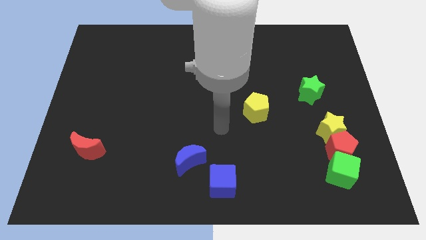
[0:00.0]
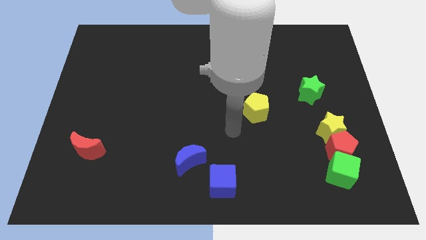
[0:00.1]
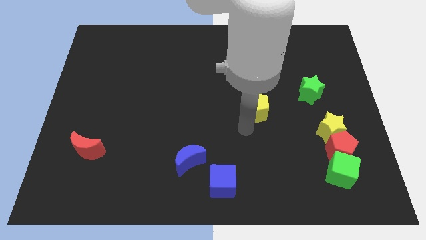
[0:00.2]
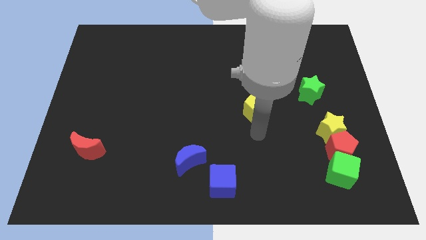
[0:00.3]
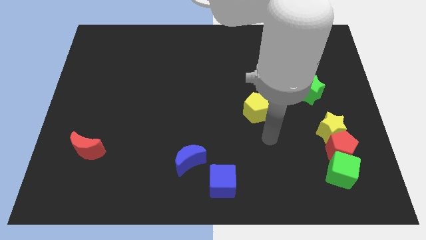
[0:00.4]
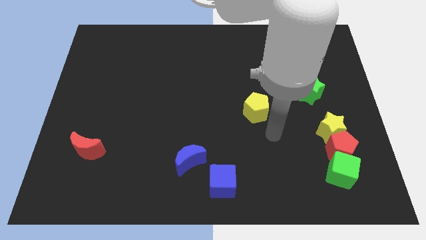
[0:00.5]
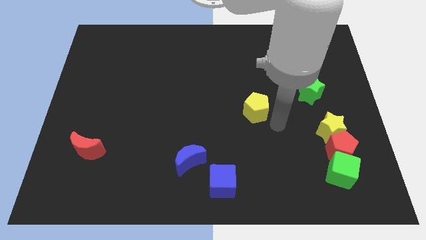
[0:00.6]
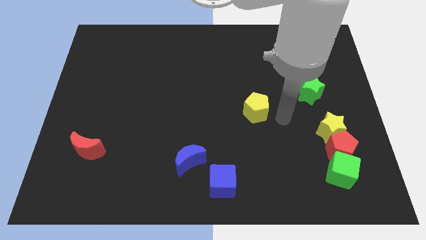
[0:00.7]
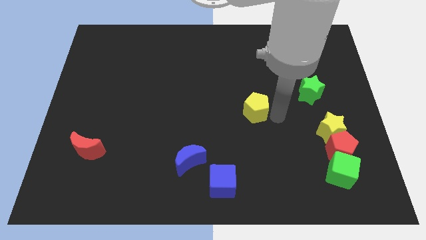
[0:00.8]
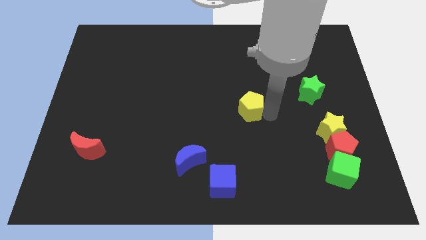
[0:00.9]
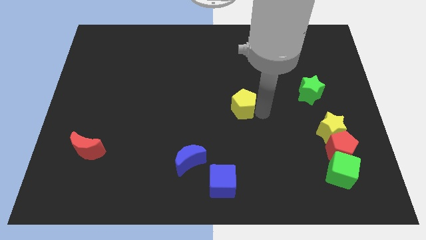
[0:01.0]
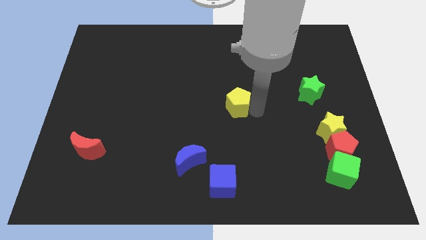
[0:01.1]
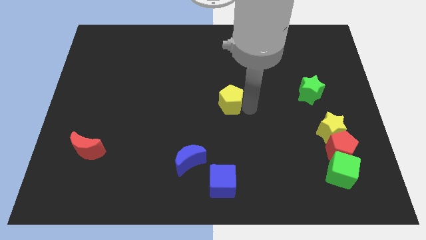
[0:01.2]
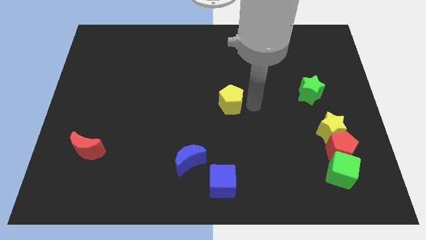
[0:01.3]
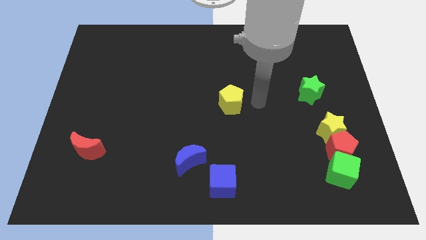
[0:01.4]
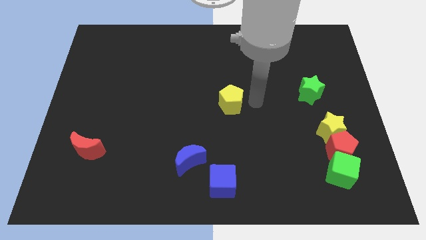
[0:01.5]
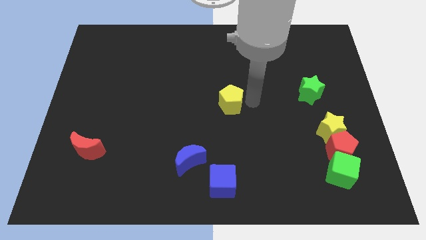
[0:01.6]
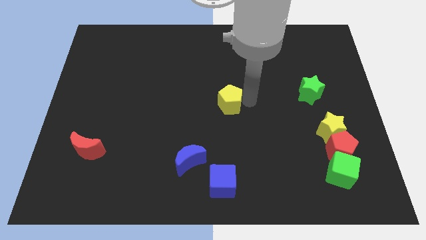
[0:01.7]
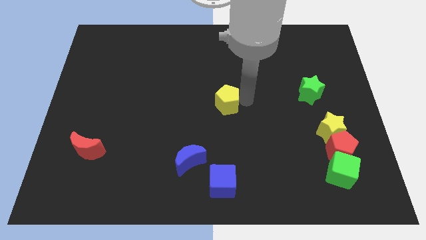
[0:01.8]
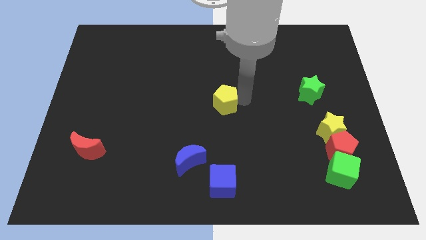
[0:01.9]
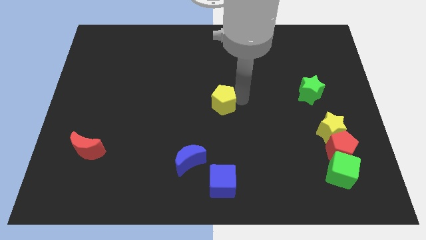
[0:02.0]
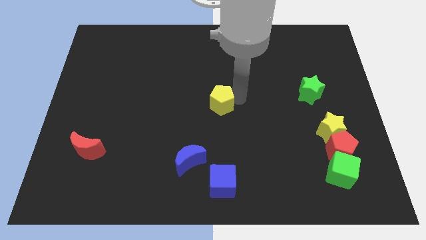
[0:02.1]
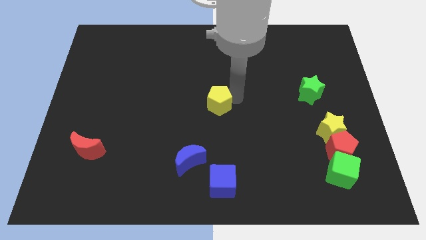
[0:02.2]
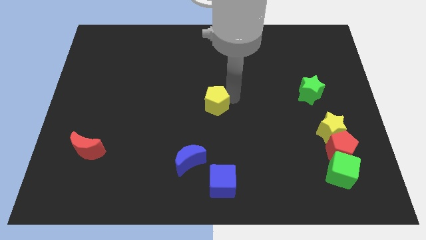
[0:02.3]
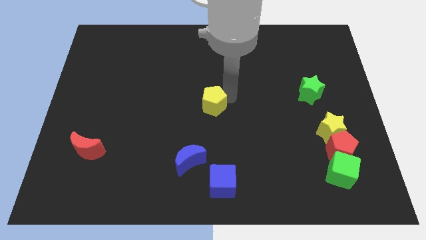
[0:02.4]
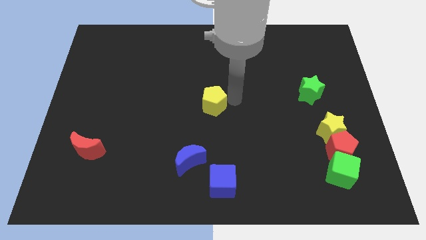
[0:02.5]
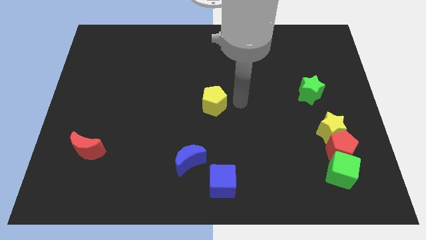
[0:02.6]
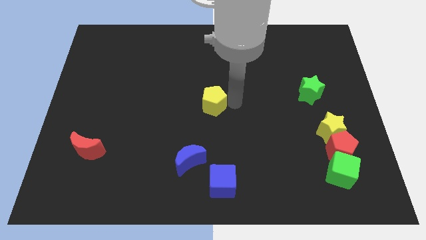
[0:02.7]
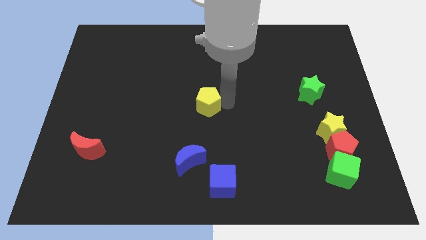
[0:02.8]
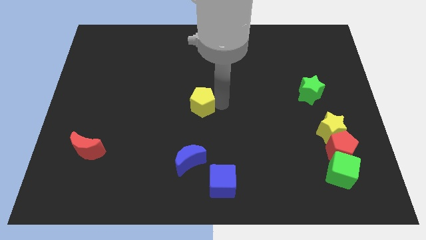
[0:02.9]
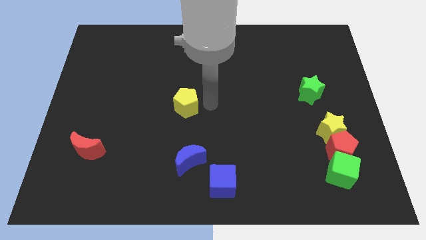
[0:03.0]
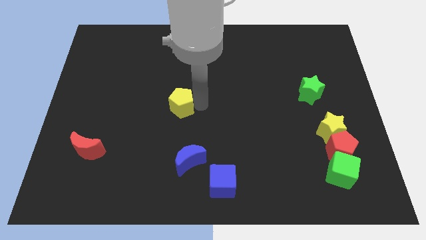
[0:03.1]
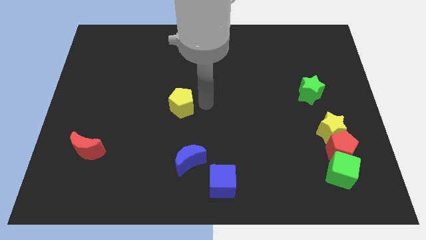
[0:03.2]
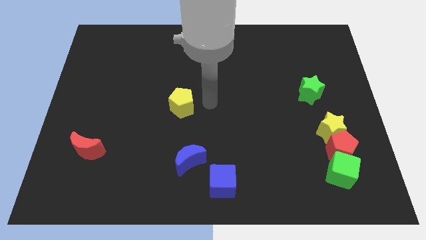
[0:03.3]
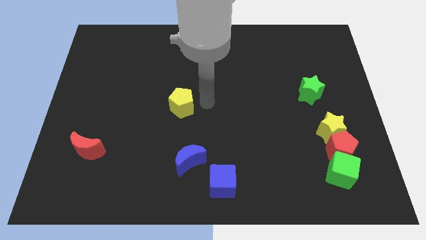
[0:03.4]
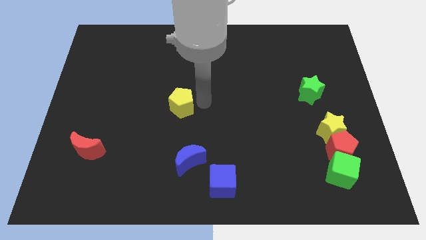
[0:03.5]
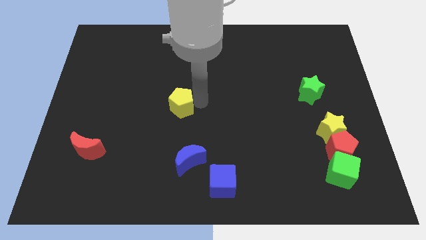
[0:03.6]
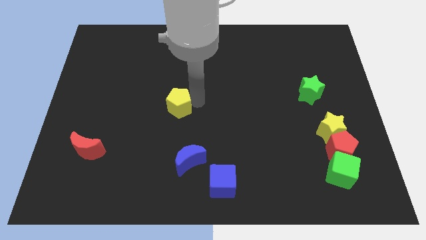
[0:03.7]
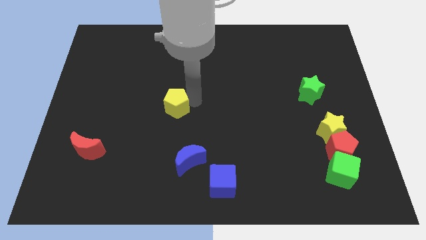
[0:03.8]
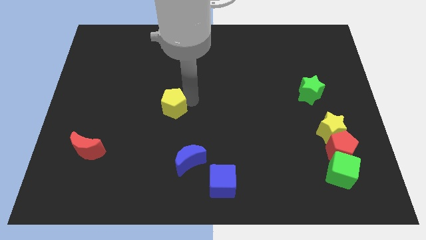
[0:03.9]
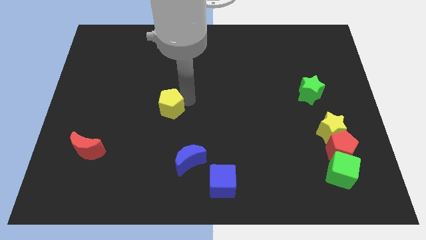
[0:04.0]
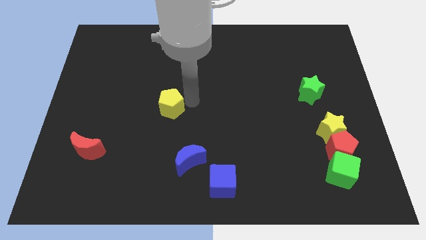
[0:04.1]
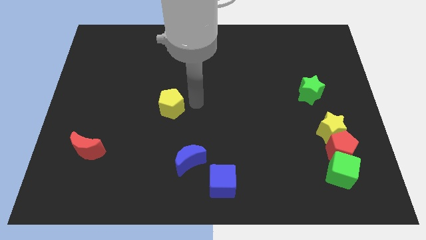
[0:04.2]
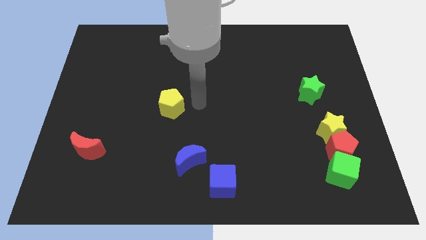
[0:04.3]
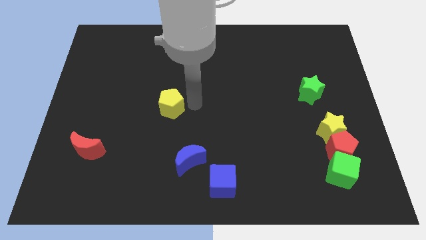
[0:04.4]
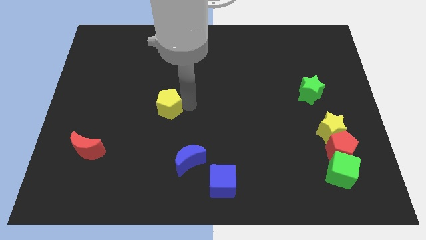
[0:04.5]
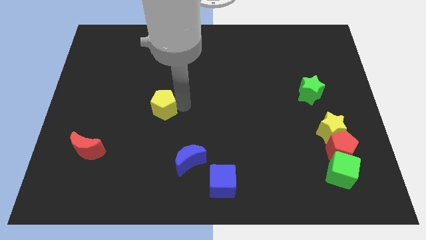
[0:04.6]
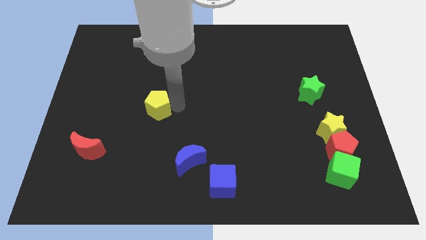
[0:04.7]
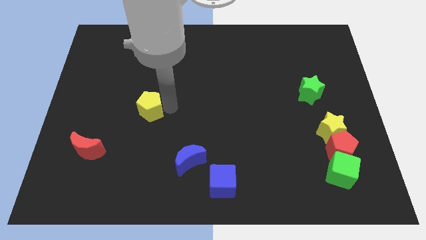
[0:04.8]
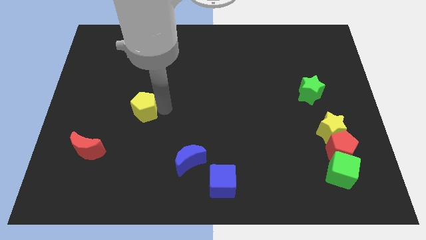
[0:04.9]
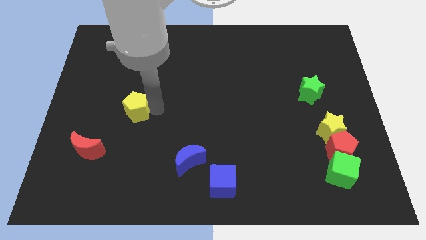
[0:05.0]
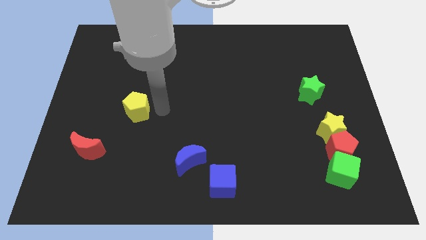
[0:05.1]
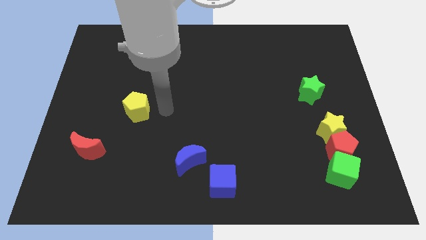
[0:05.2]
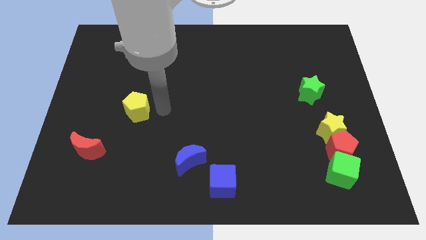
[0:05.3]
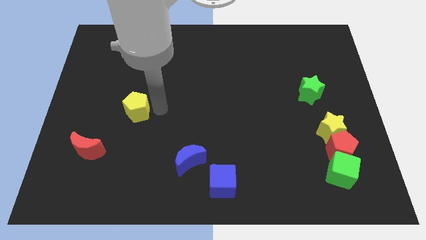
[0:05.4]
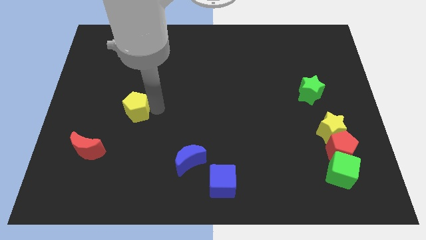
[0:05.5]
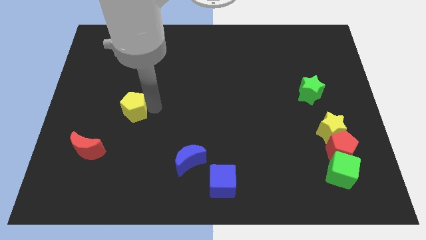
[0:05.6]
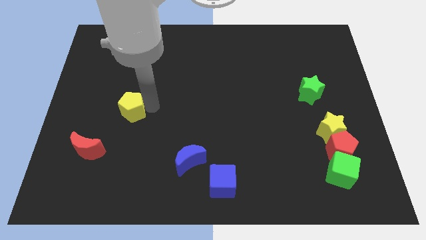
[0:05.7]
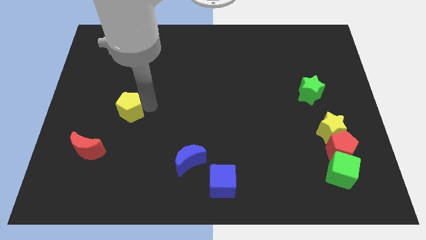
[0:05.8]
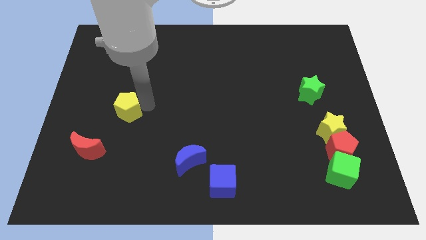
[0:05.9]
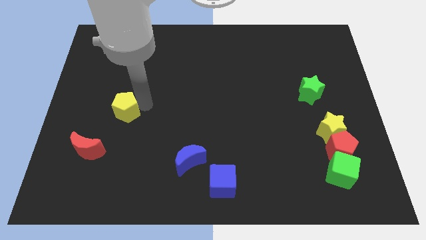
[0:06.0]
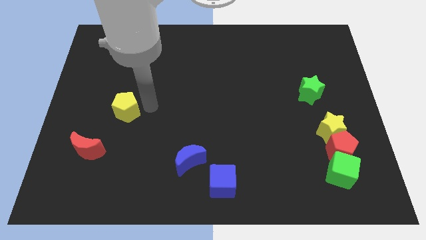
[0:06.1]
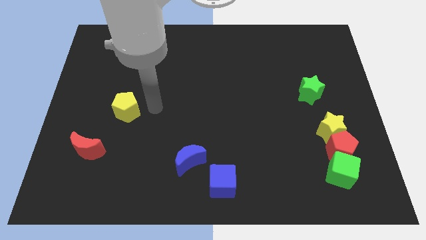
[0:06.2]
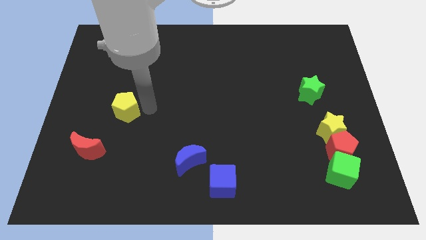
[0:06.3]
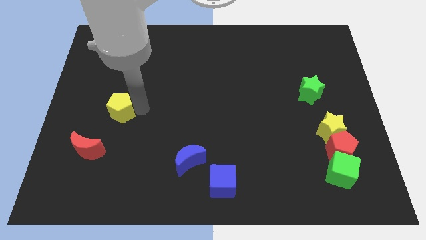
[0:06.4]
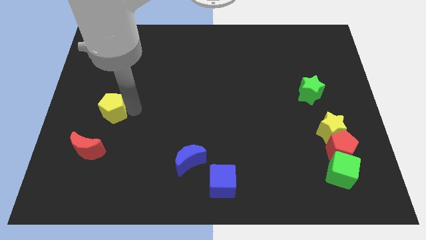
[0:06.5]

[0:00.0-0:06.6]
push the yellow pentagon above the red moon

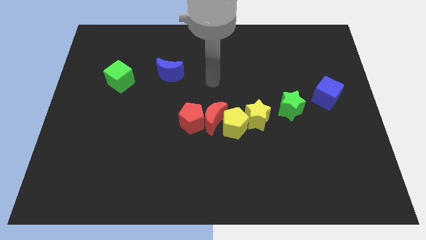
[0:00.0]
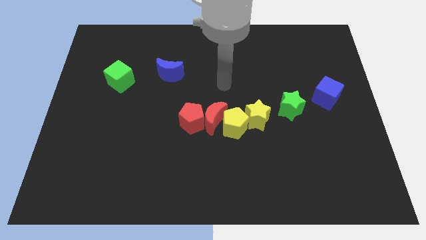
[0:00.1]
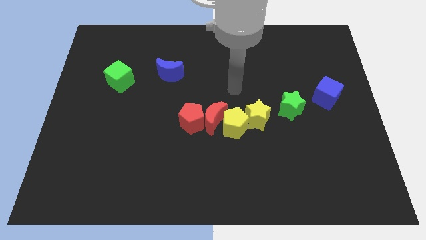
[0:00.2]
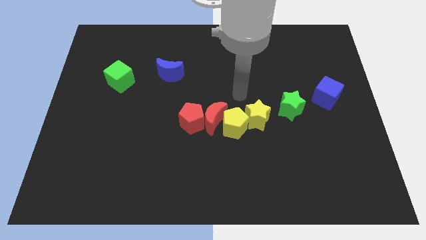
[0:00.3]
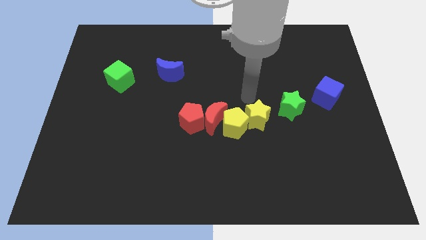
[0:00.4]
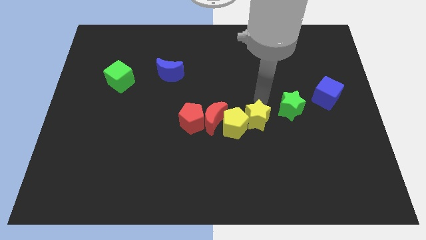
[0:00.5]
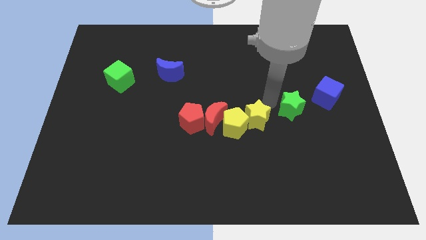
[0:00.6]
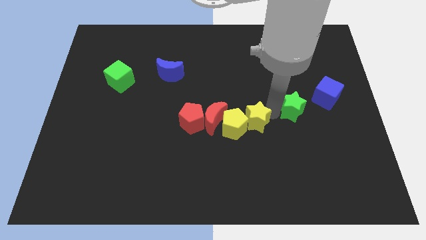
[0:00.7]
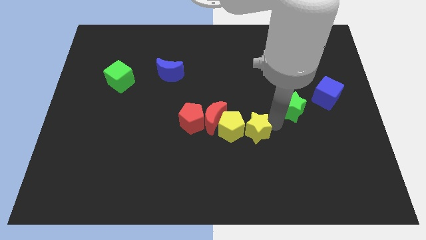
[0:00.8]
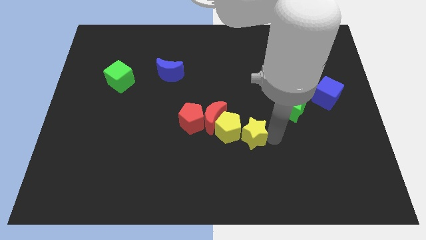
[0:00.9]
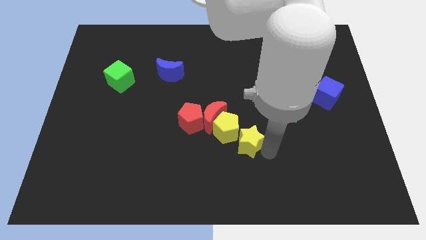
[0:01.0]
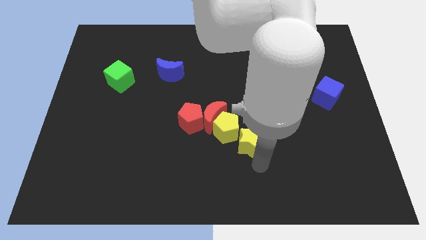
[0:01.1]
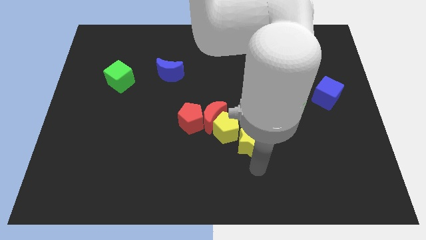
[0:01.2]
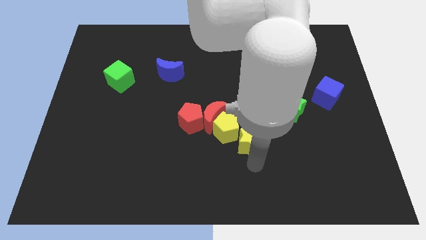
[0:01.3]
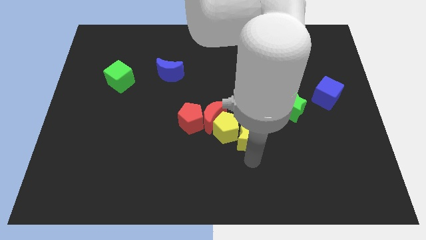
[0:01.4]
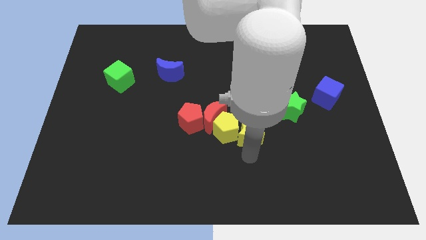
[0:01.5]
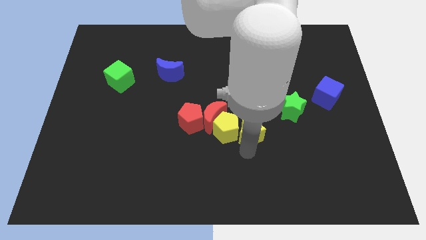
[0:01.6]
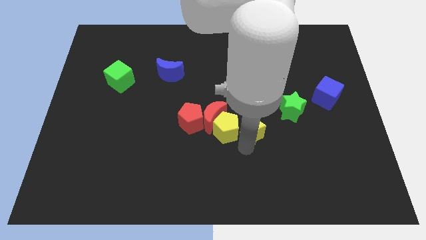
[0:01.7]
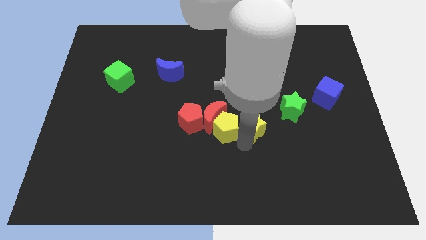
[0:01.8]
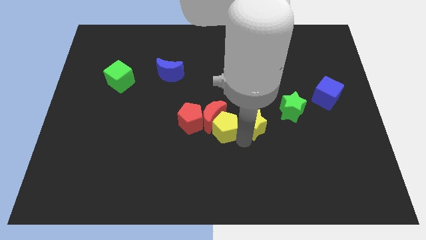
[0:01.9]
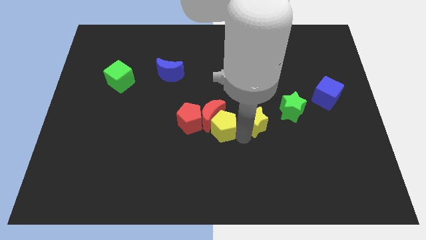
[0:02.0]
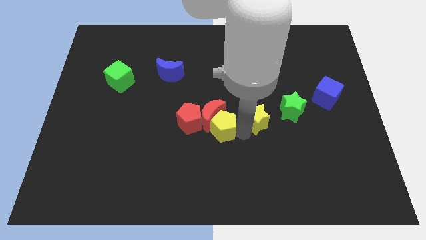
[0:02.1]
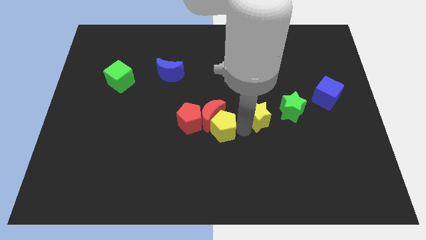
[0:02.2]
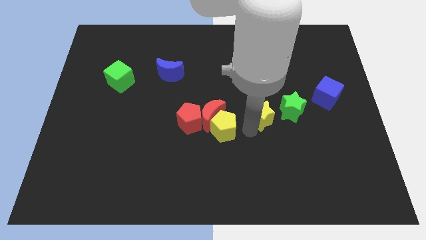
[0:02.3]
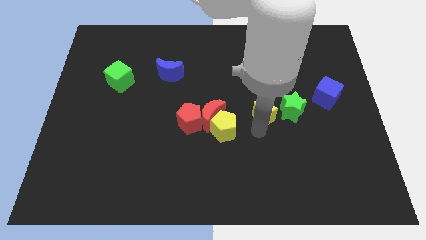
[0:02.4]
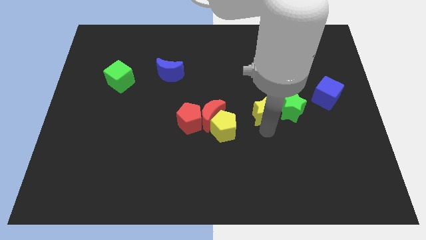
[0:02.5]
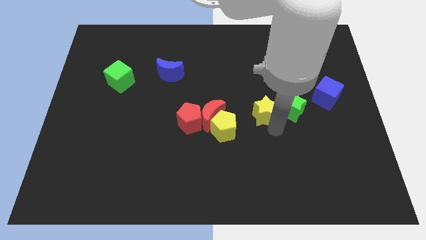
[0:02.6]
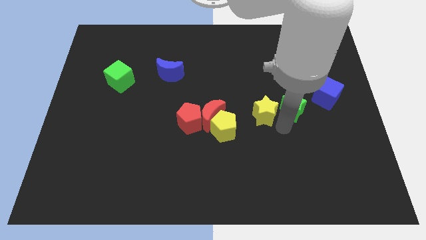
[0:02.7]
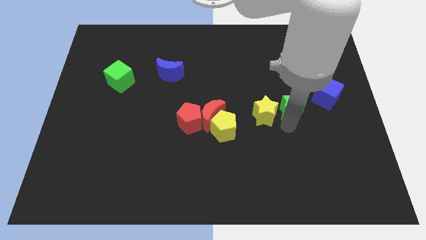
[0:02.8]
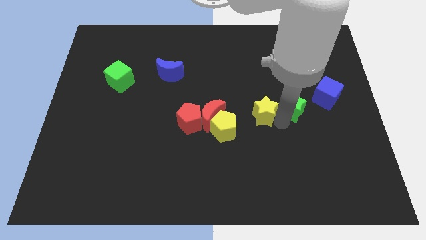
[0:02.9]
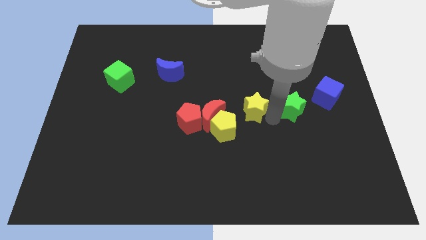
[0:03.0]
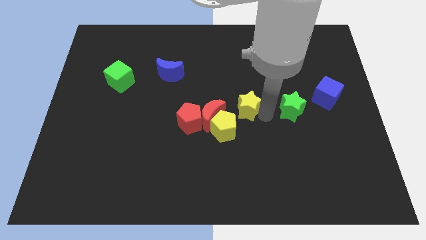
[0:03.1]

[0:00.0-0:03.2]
slide the yellow star to the top right side of the red moon
